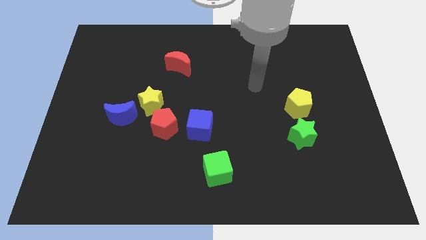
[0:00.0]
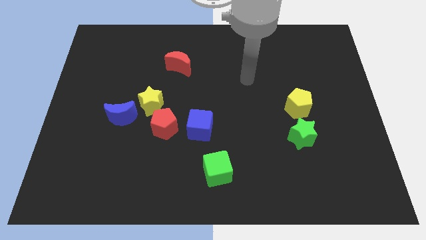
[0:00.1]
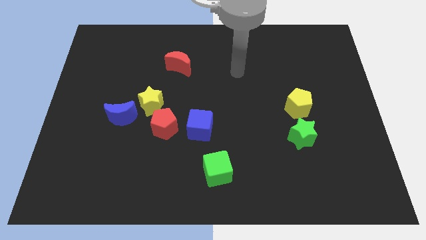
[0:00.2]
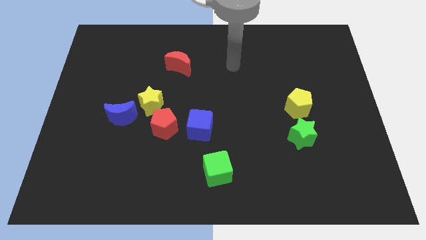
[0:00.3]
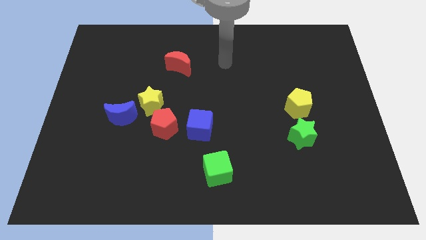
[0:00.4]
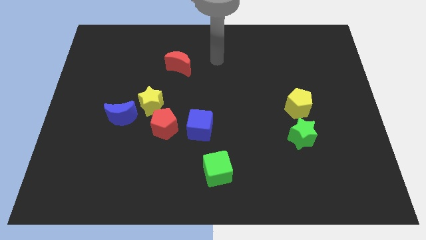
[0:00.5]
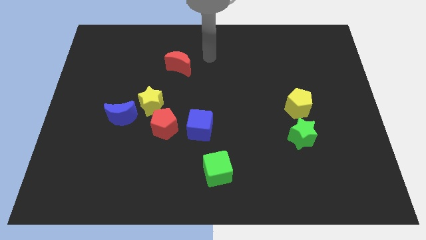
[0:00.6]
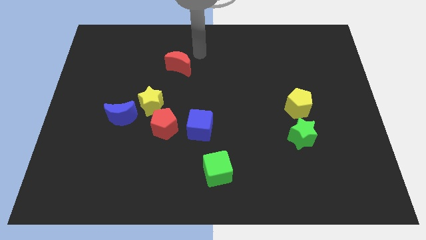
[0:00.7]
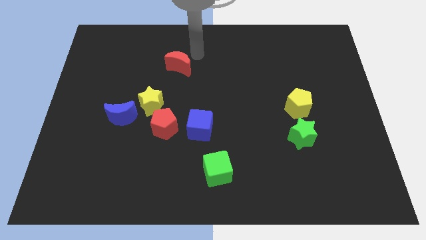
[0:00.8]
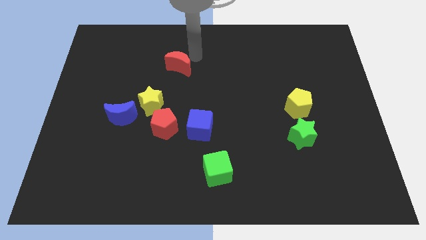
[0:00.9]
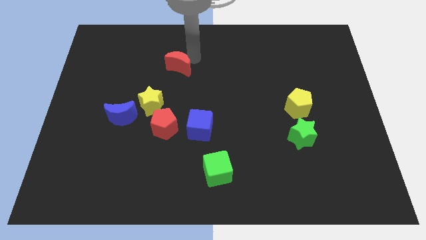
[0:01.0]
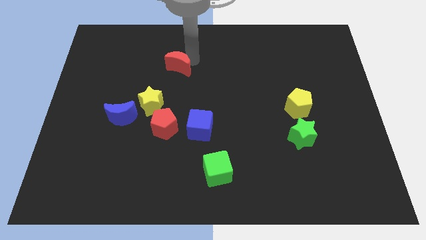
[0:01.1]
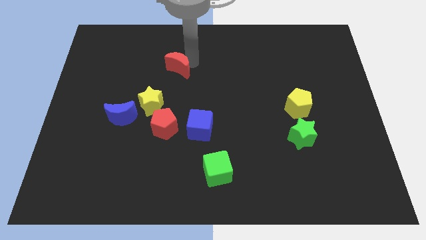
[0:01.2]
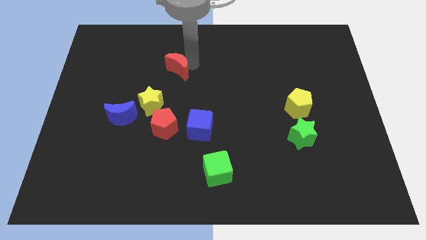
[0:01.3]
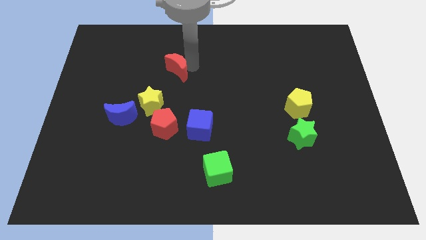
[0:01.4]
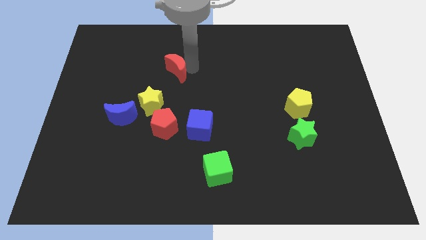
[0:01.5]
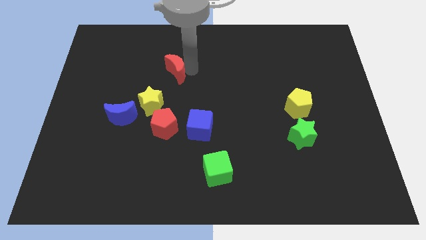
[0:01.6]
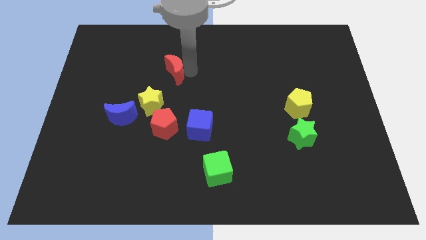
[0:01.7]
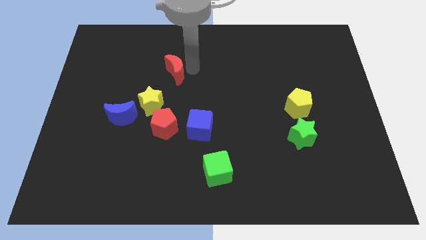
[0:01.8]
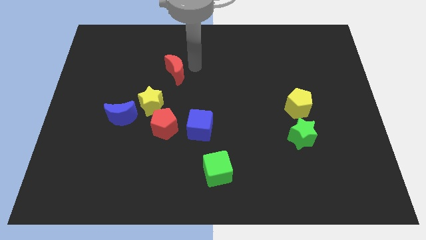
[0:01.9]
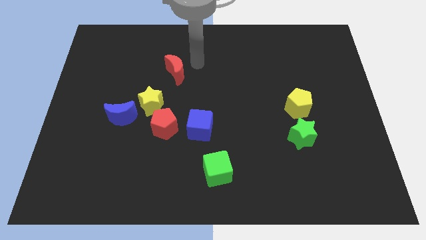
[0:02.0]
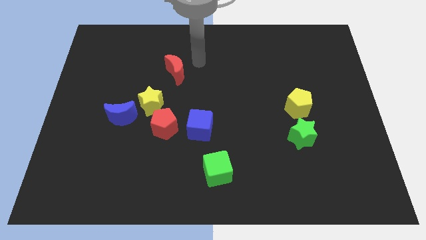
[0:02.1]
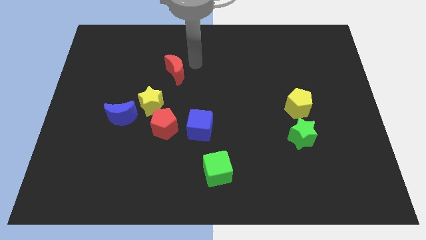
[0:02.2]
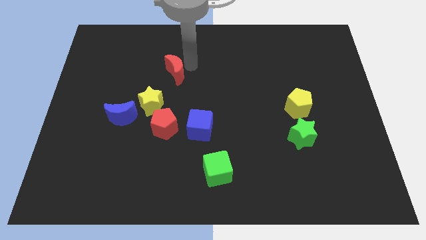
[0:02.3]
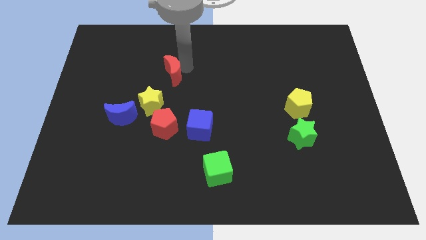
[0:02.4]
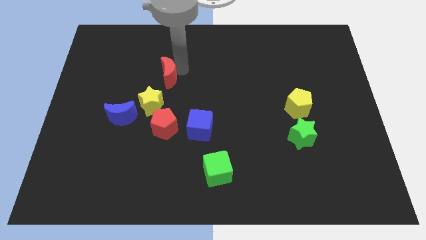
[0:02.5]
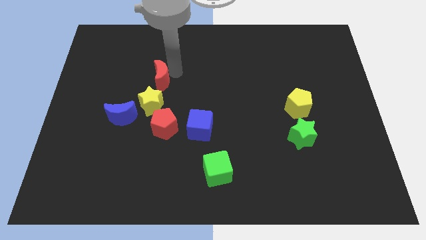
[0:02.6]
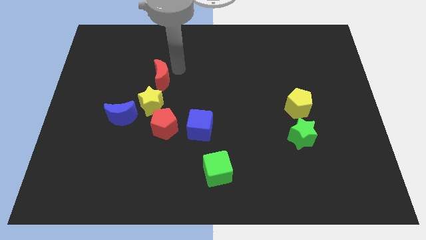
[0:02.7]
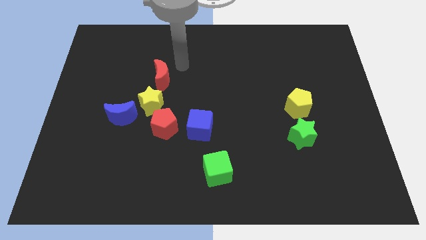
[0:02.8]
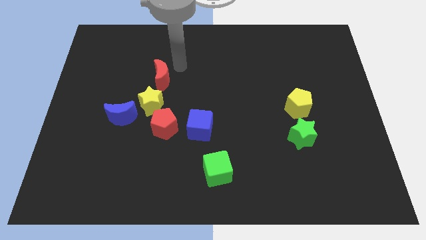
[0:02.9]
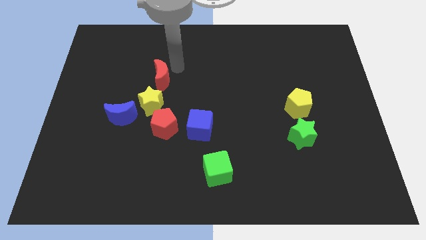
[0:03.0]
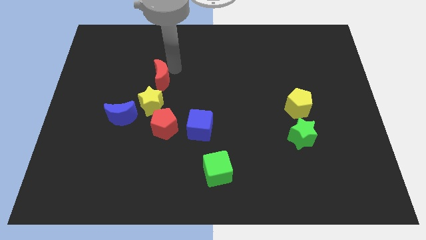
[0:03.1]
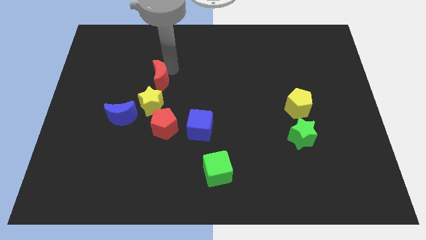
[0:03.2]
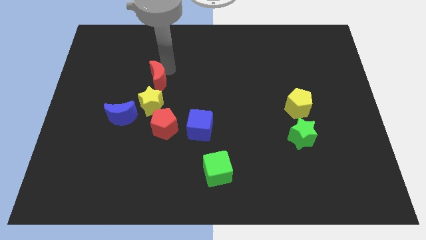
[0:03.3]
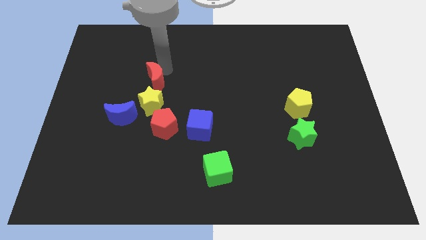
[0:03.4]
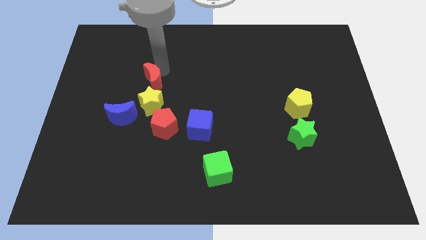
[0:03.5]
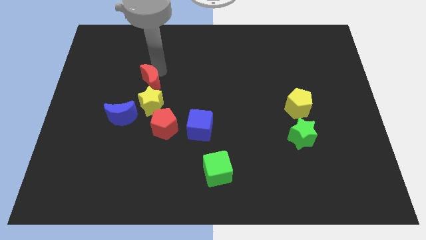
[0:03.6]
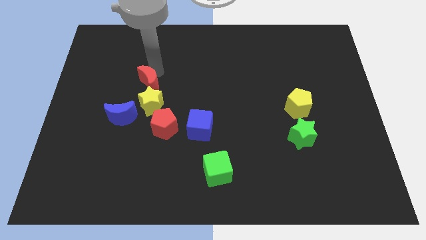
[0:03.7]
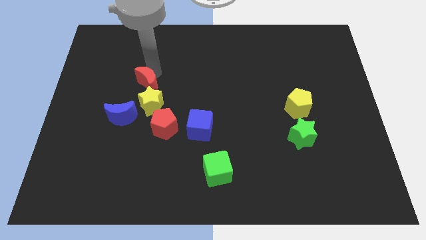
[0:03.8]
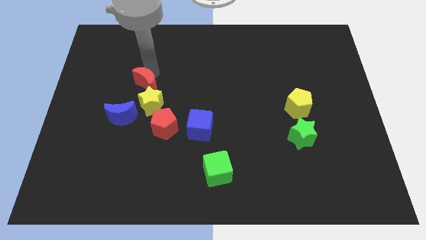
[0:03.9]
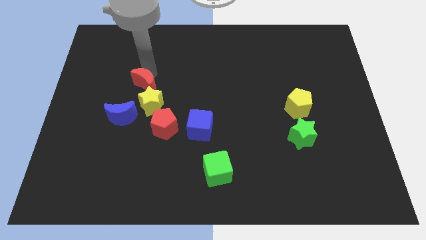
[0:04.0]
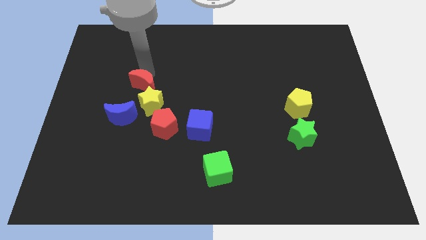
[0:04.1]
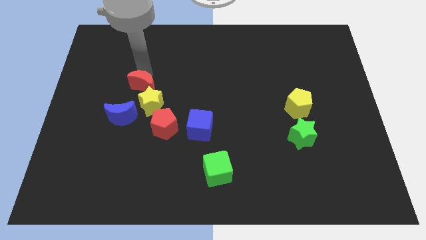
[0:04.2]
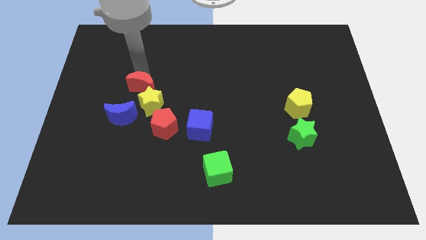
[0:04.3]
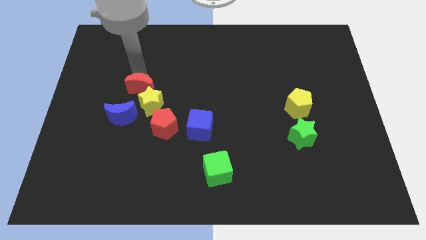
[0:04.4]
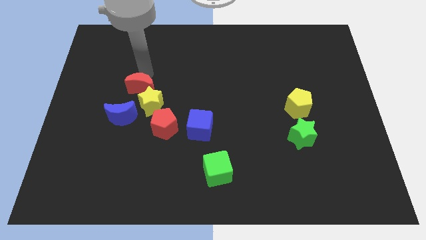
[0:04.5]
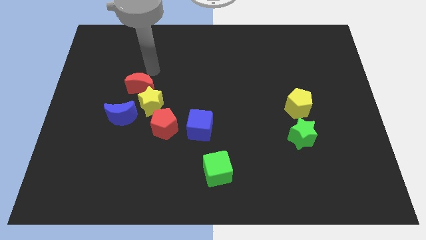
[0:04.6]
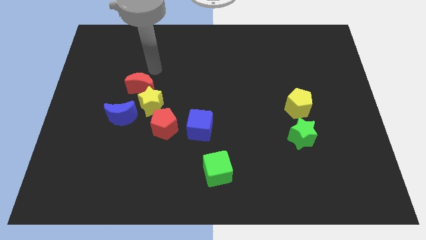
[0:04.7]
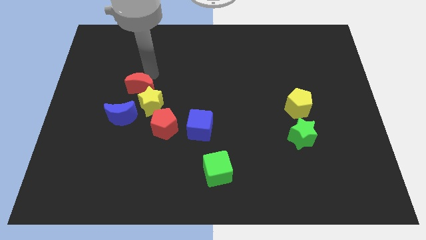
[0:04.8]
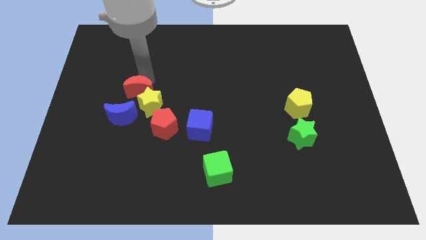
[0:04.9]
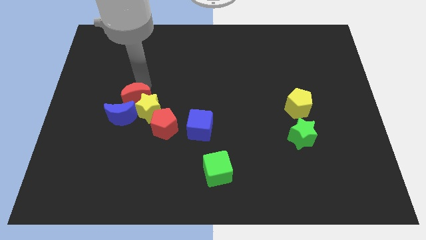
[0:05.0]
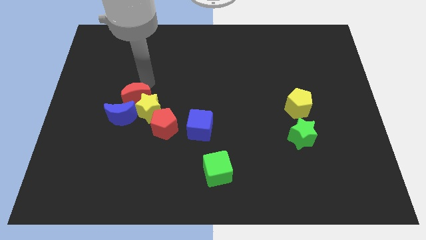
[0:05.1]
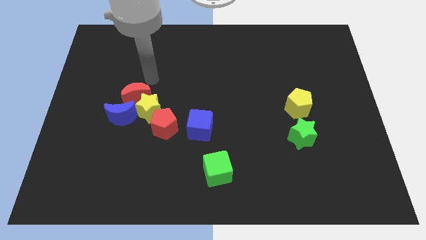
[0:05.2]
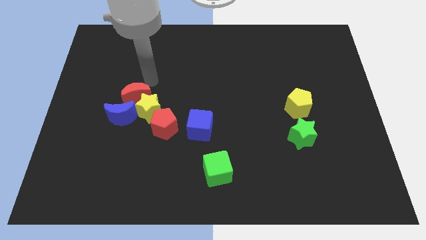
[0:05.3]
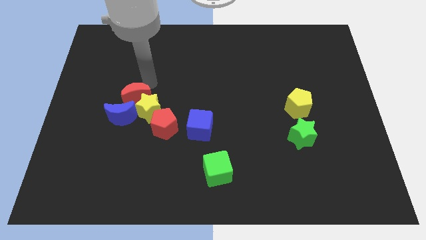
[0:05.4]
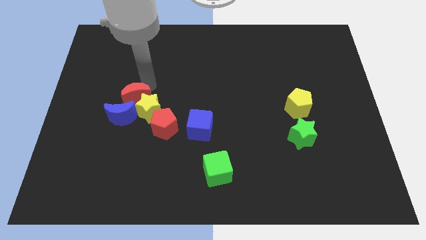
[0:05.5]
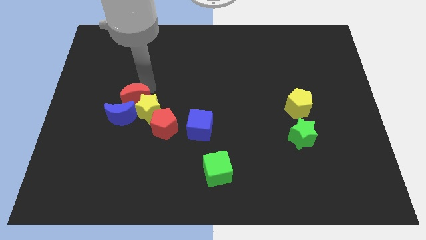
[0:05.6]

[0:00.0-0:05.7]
push the red moon to the blue moon

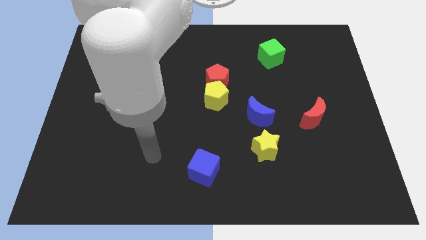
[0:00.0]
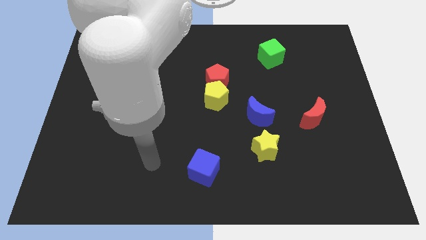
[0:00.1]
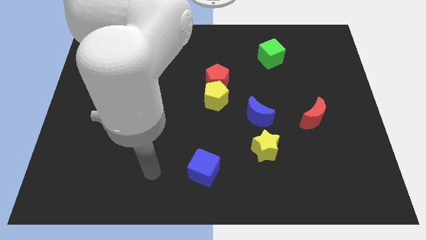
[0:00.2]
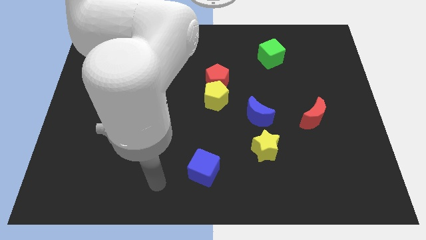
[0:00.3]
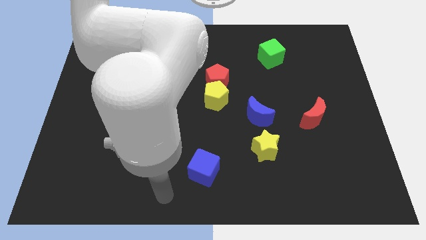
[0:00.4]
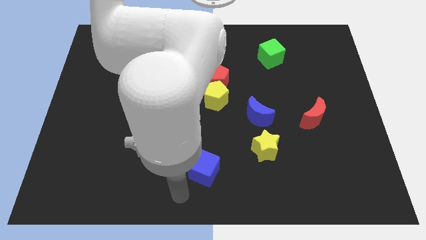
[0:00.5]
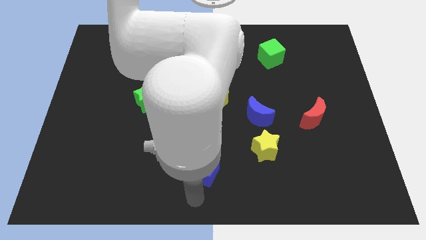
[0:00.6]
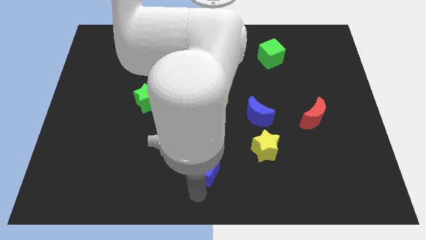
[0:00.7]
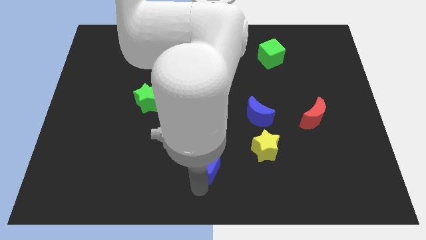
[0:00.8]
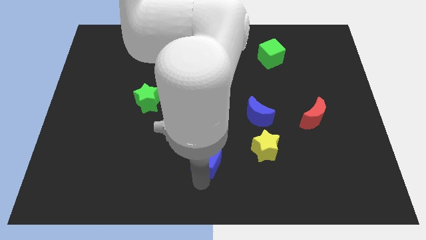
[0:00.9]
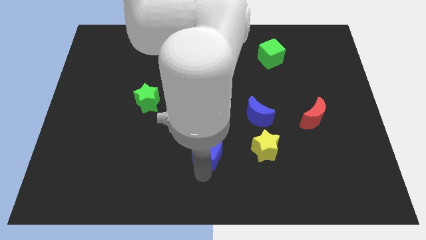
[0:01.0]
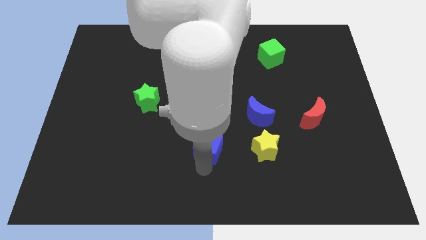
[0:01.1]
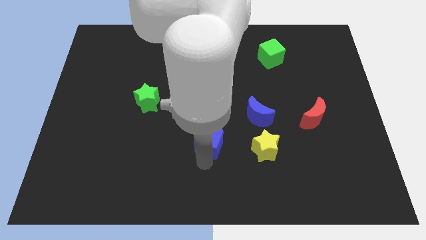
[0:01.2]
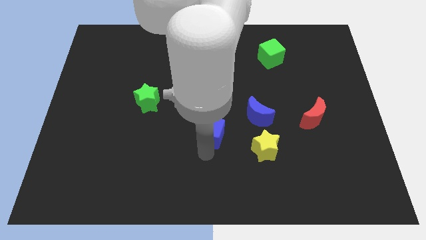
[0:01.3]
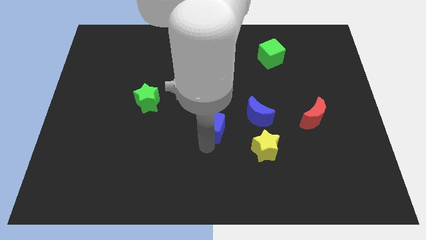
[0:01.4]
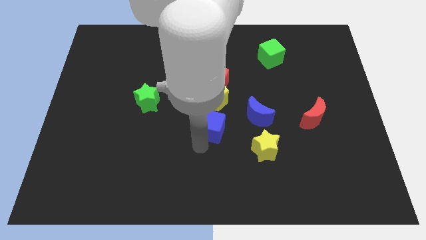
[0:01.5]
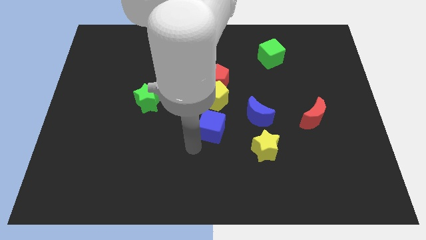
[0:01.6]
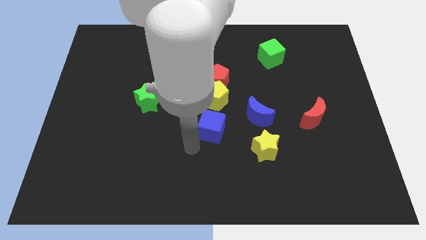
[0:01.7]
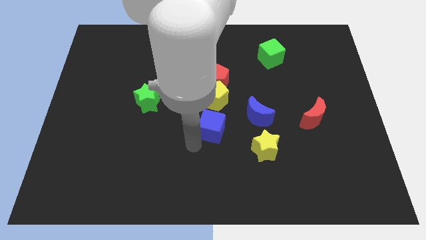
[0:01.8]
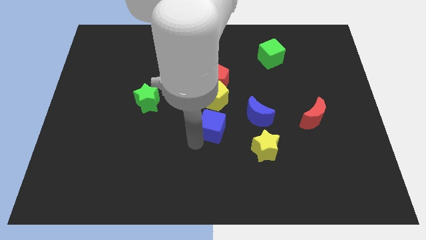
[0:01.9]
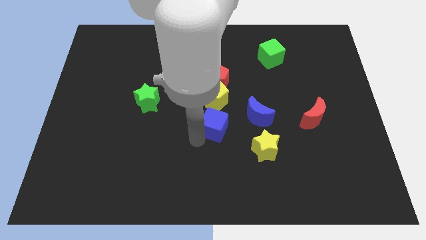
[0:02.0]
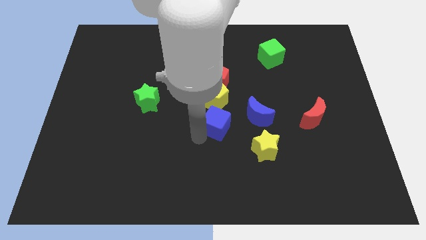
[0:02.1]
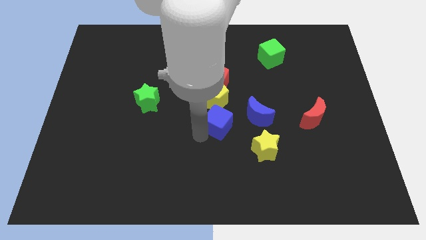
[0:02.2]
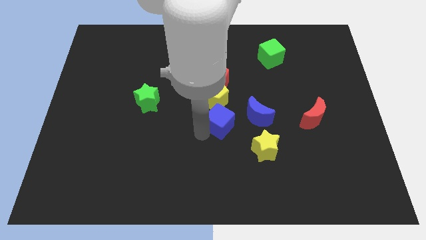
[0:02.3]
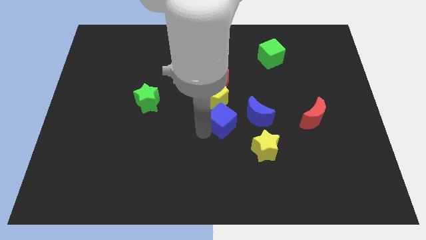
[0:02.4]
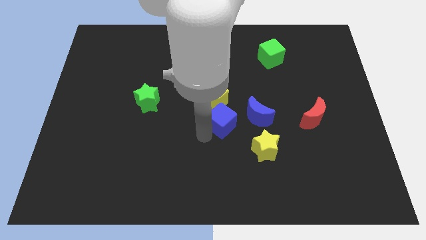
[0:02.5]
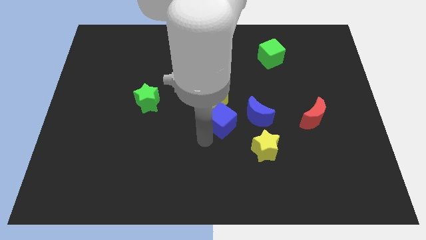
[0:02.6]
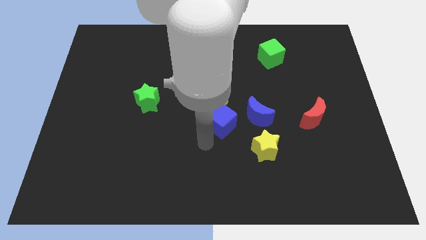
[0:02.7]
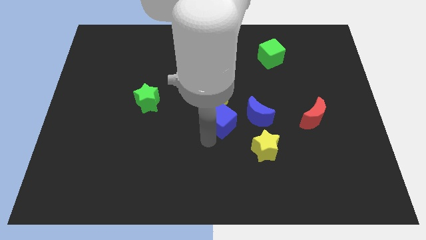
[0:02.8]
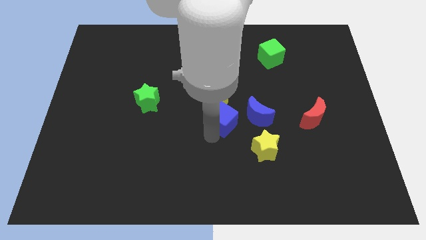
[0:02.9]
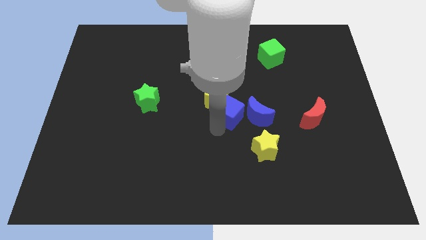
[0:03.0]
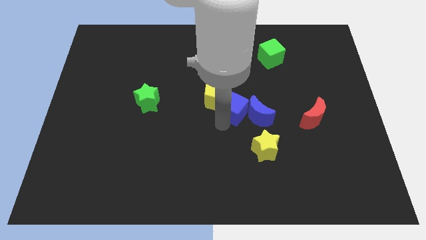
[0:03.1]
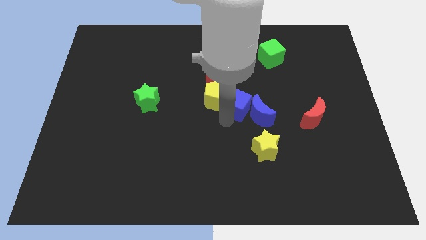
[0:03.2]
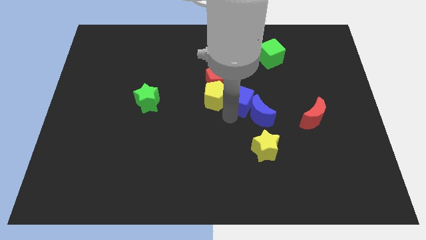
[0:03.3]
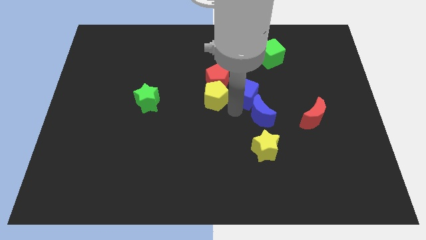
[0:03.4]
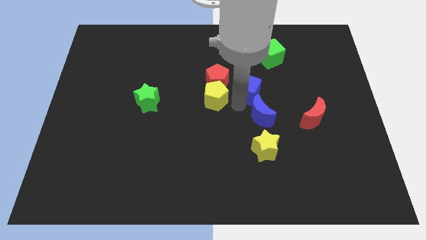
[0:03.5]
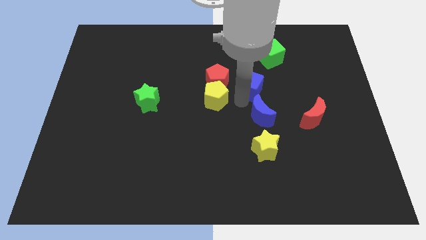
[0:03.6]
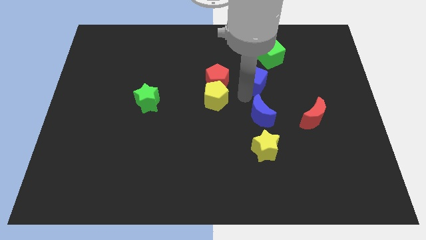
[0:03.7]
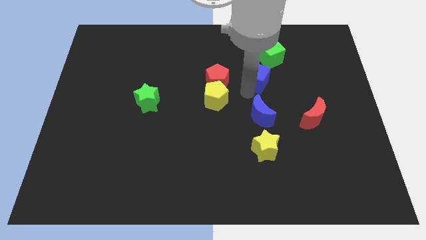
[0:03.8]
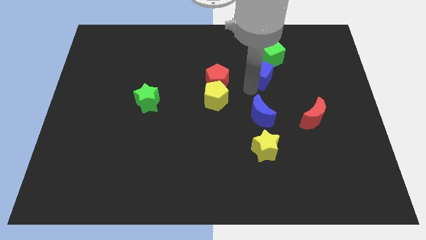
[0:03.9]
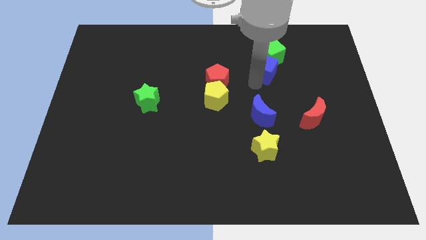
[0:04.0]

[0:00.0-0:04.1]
move the blue cube next to the green cube
